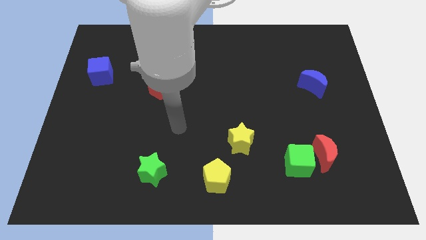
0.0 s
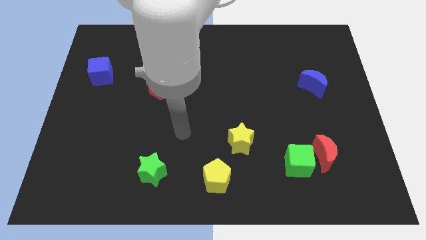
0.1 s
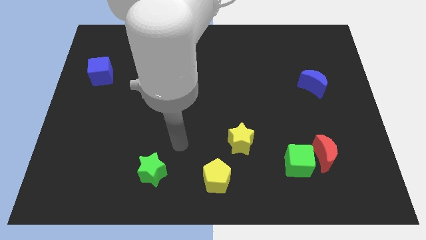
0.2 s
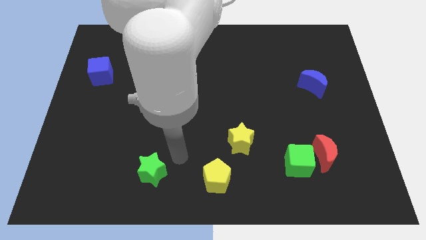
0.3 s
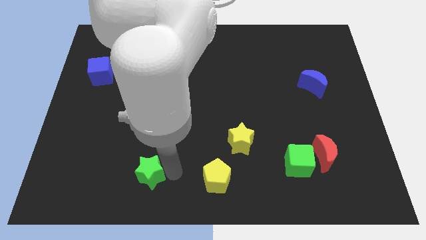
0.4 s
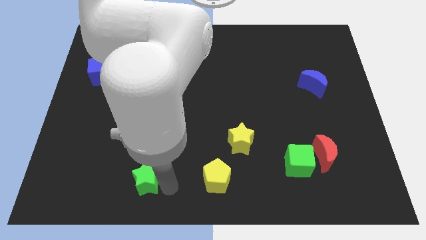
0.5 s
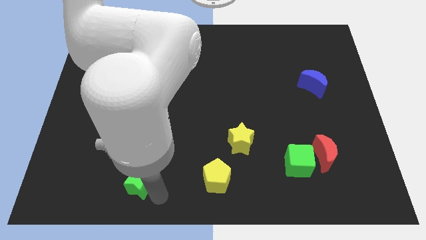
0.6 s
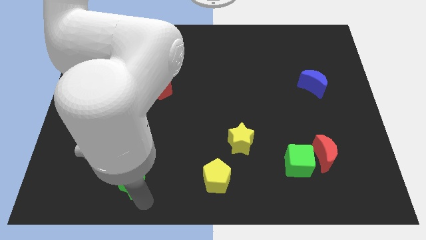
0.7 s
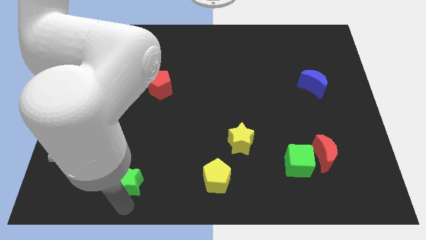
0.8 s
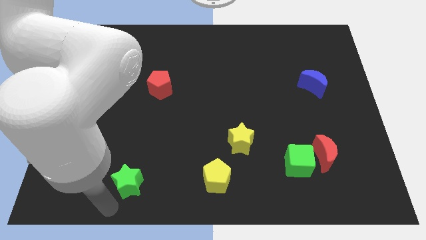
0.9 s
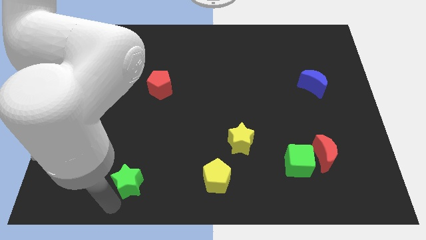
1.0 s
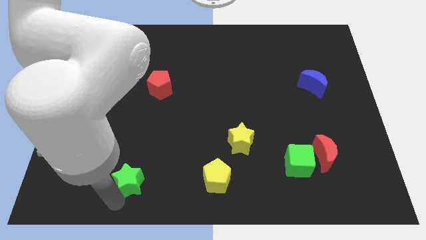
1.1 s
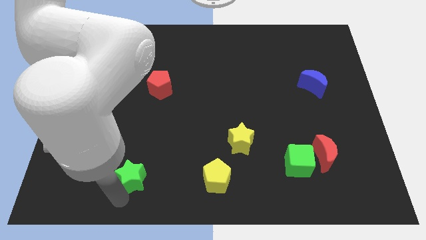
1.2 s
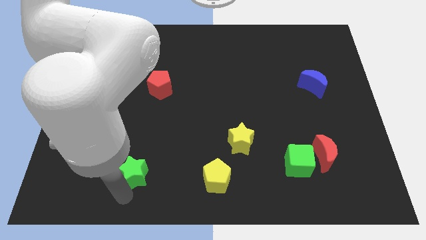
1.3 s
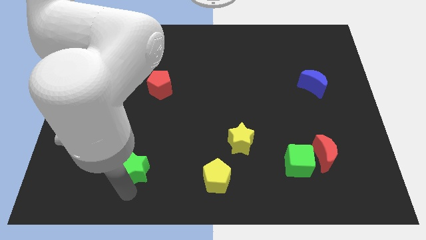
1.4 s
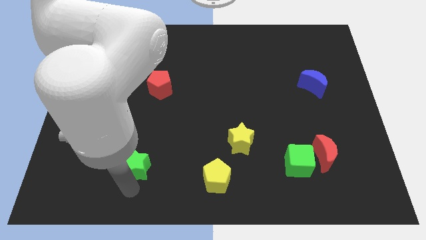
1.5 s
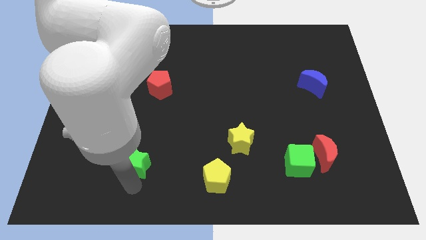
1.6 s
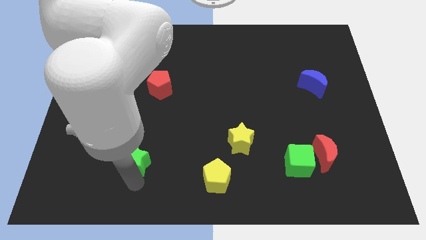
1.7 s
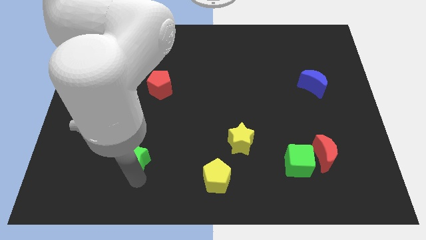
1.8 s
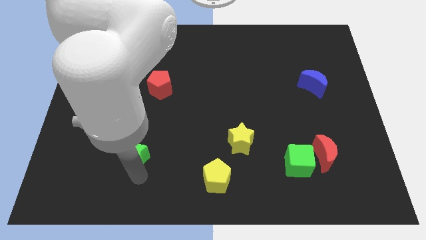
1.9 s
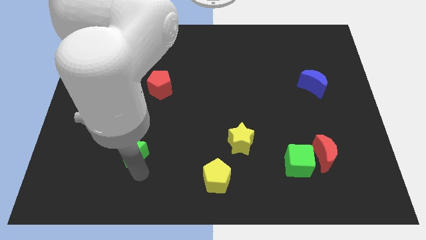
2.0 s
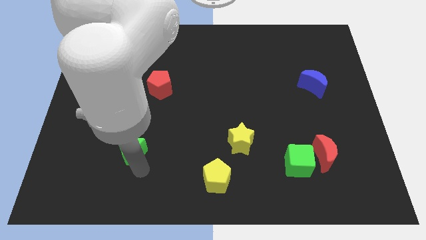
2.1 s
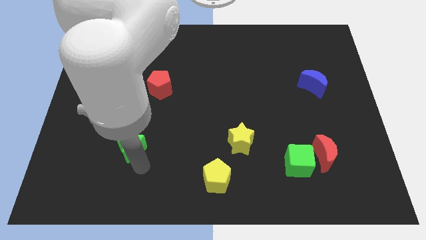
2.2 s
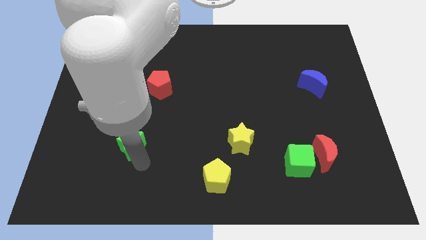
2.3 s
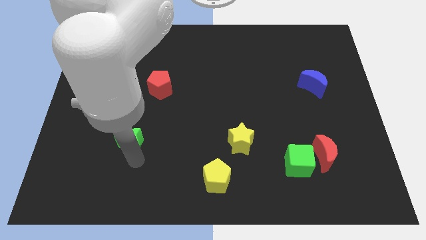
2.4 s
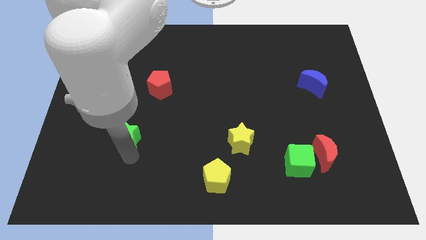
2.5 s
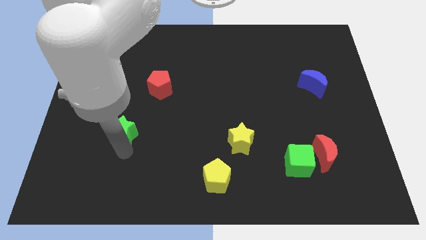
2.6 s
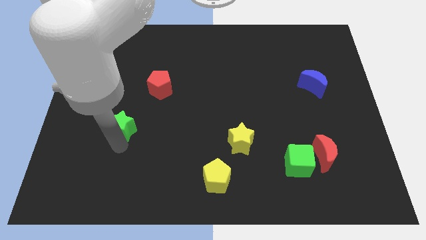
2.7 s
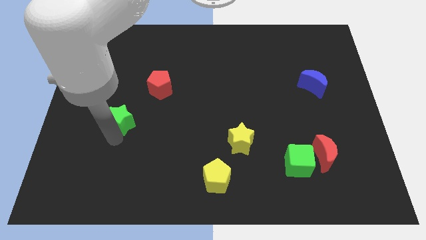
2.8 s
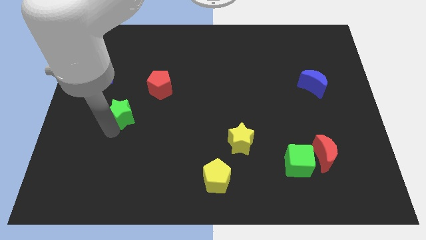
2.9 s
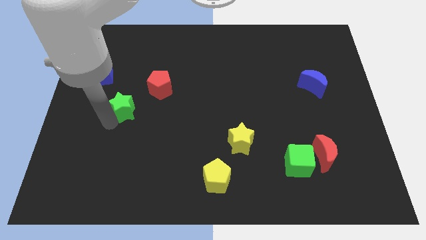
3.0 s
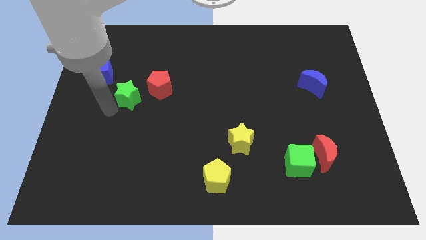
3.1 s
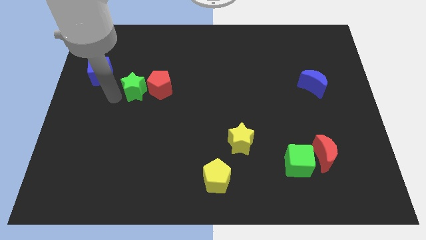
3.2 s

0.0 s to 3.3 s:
push the green star upwards

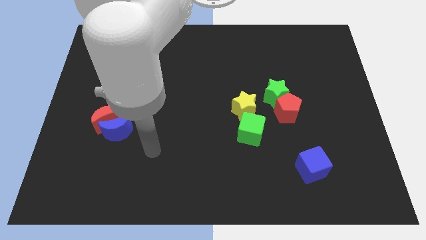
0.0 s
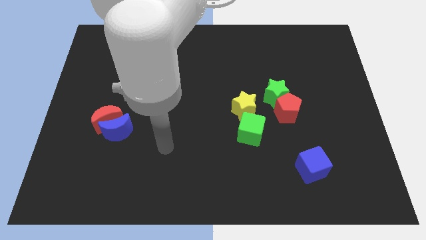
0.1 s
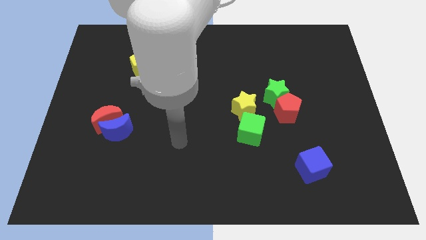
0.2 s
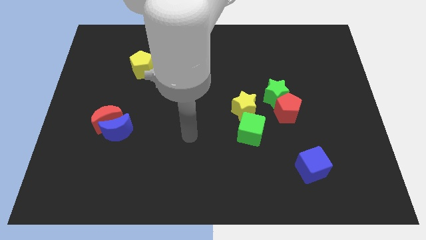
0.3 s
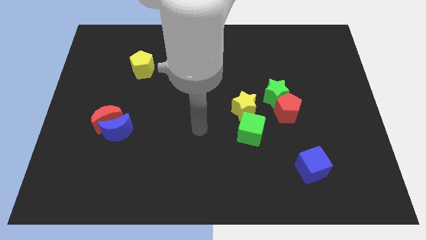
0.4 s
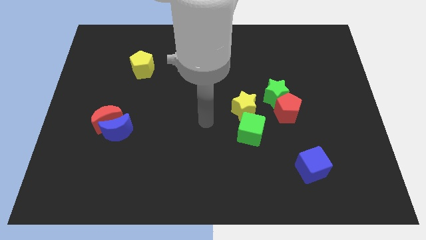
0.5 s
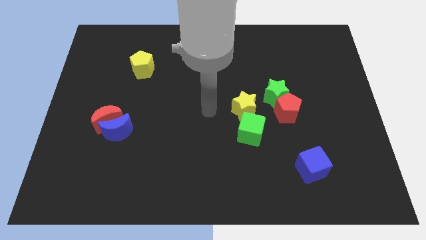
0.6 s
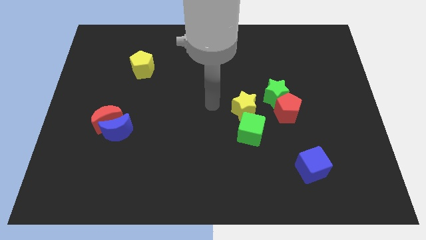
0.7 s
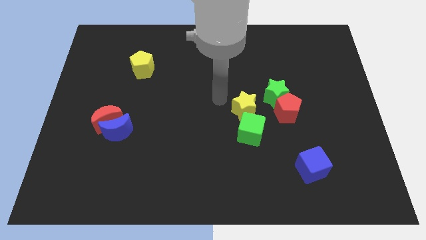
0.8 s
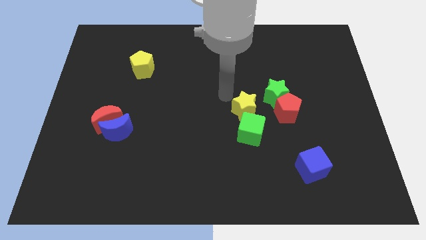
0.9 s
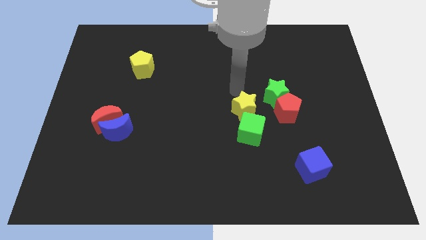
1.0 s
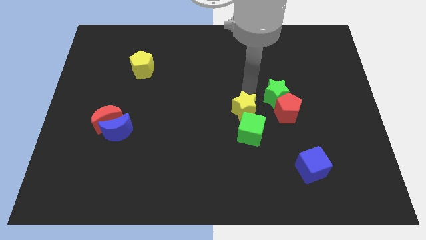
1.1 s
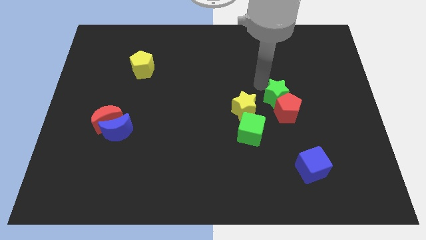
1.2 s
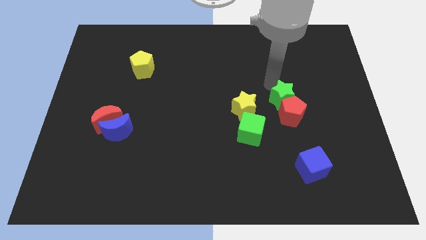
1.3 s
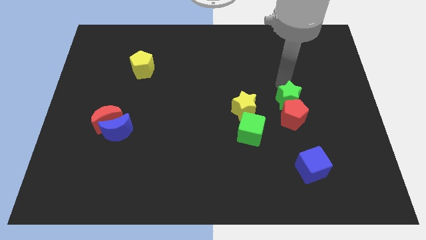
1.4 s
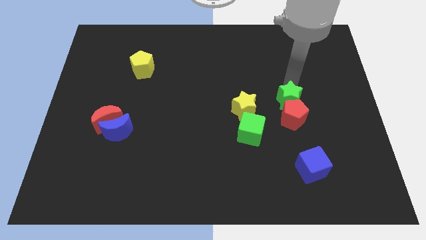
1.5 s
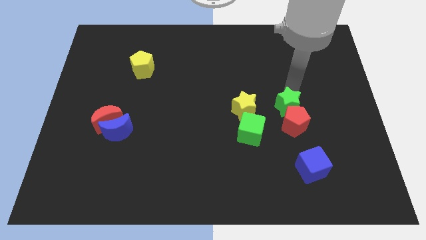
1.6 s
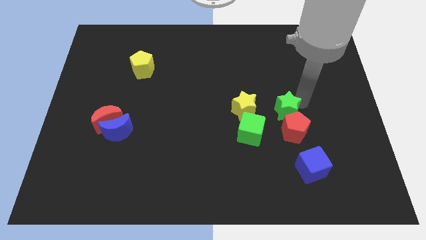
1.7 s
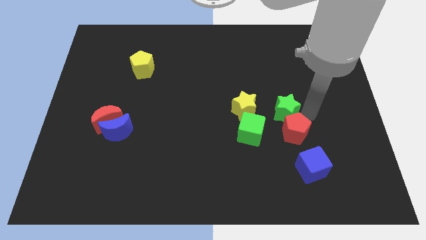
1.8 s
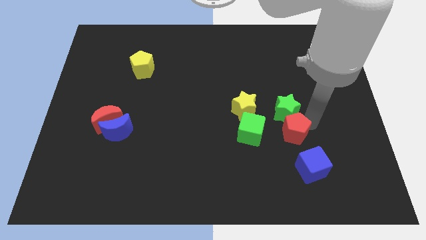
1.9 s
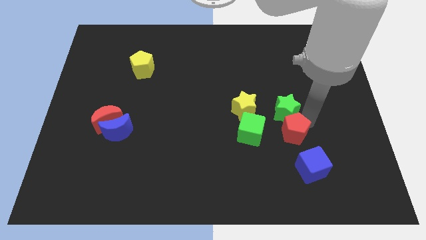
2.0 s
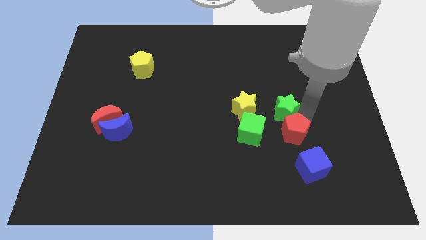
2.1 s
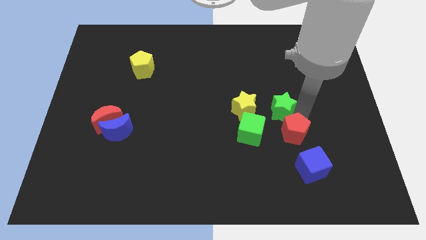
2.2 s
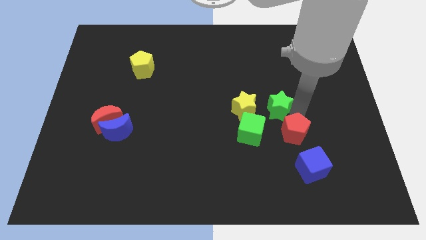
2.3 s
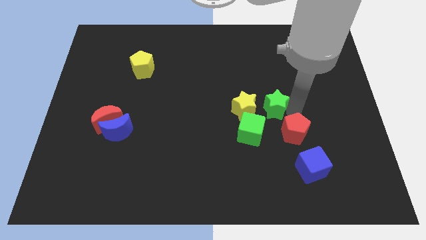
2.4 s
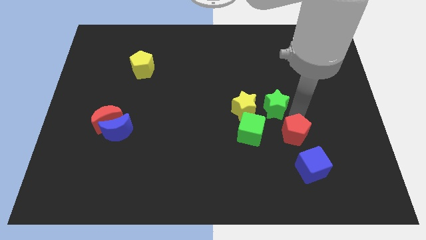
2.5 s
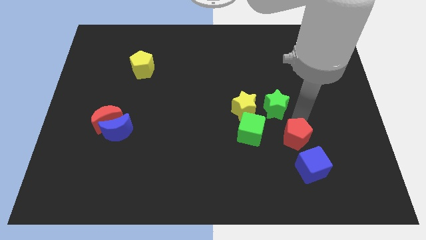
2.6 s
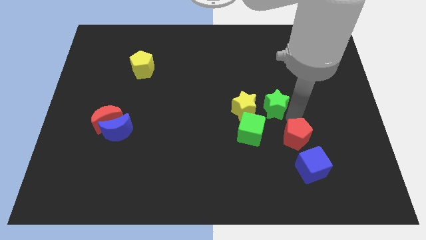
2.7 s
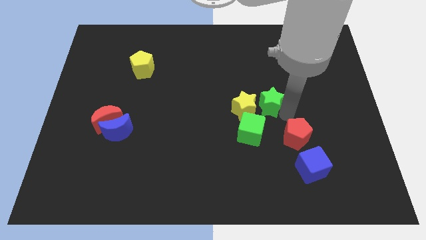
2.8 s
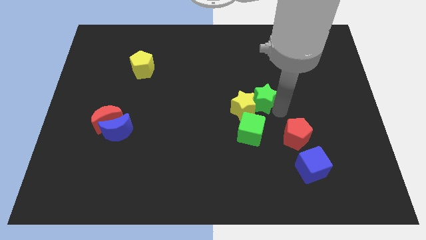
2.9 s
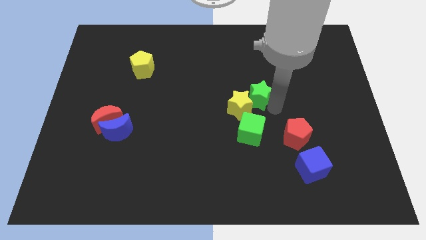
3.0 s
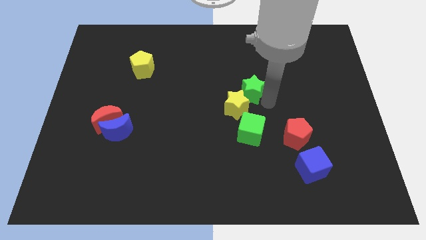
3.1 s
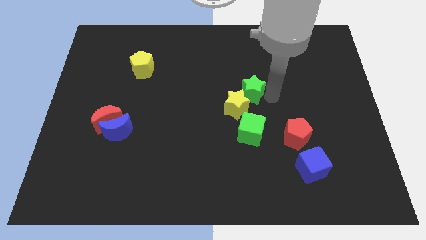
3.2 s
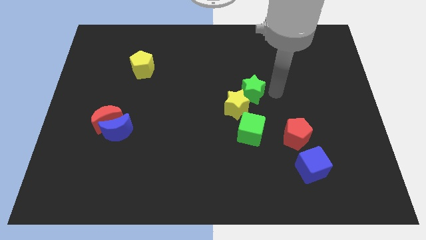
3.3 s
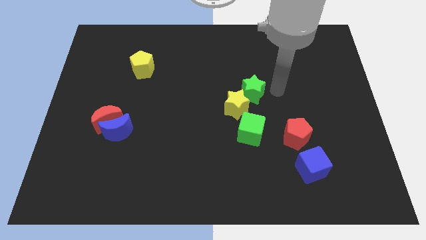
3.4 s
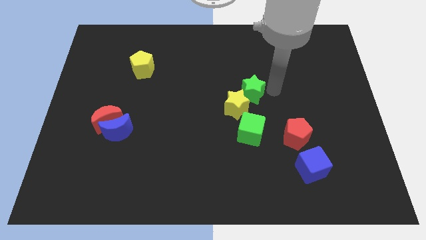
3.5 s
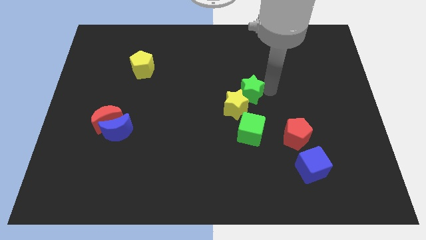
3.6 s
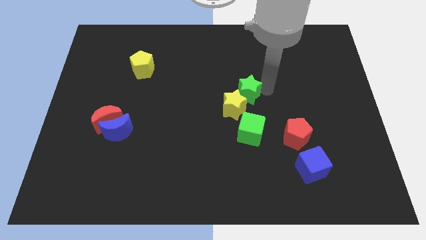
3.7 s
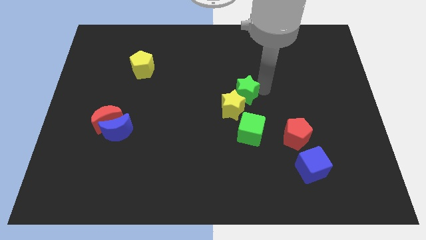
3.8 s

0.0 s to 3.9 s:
slightly push the green star left

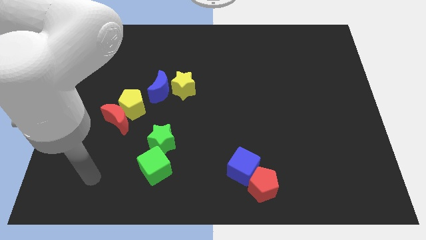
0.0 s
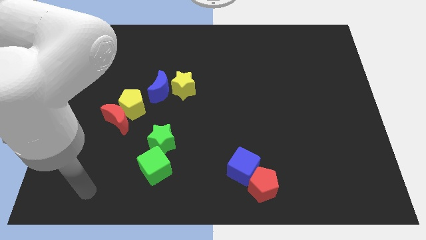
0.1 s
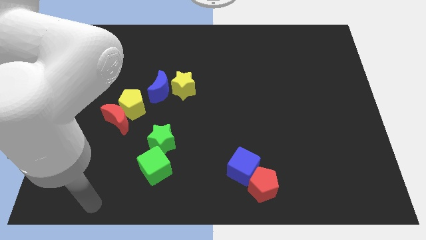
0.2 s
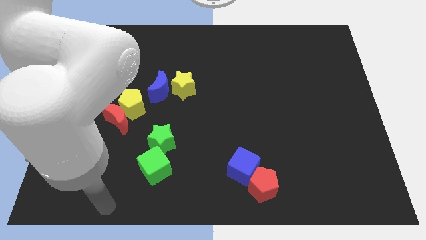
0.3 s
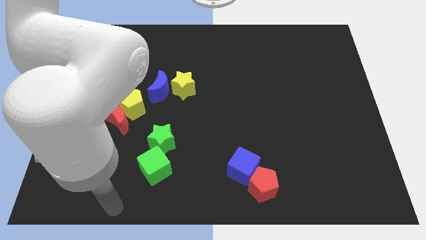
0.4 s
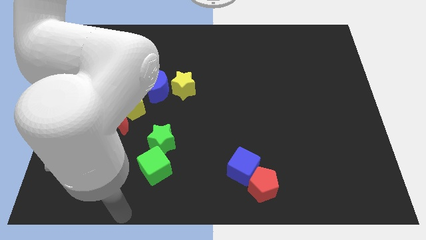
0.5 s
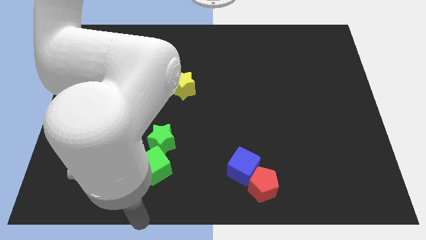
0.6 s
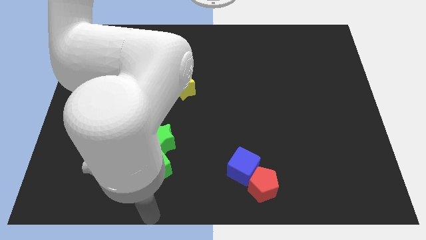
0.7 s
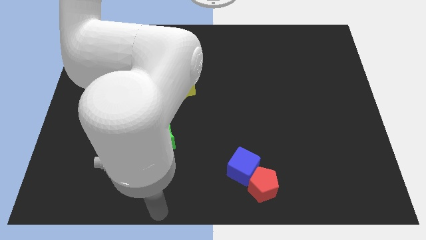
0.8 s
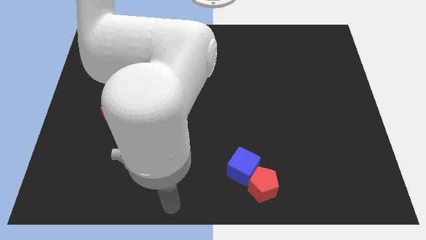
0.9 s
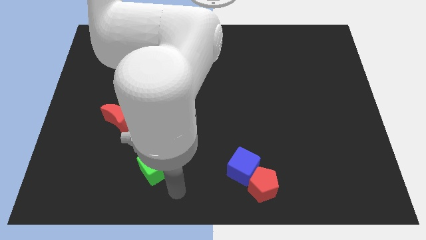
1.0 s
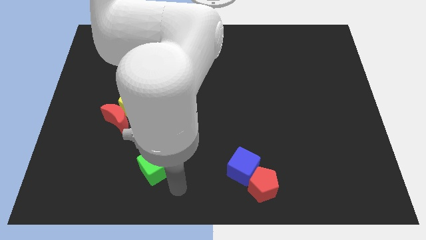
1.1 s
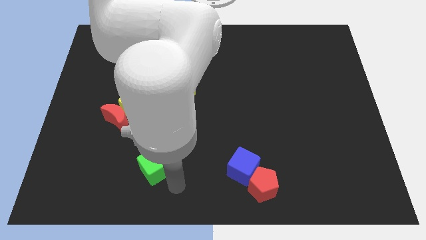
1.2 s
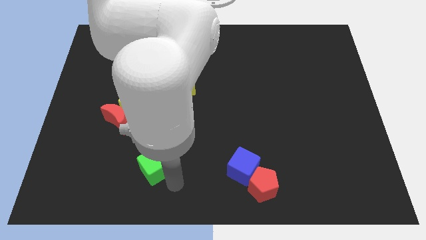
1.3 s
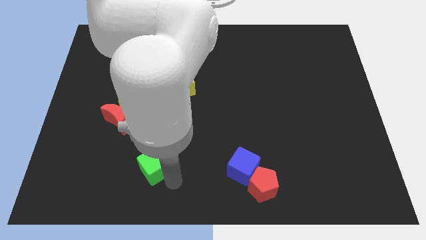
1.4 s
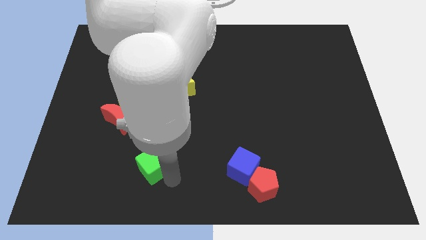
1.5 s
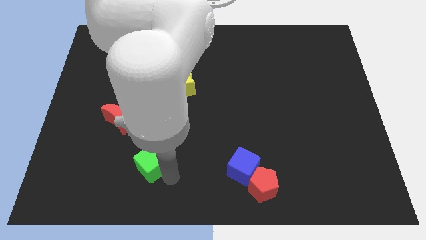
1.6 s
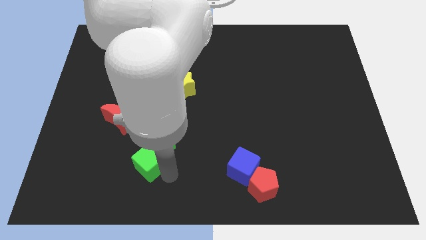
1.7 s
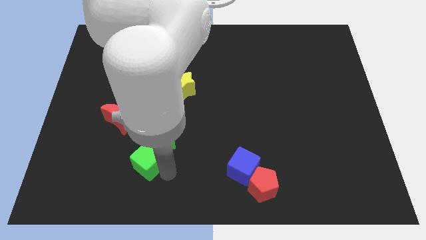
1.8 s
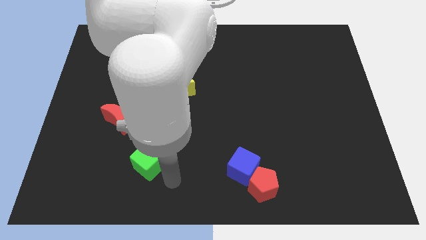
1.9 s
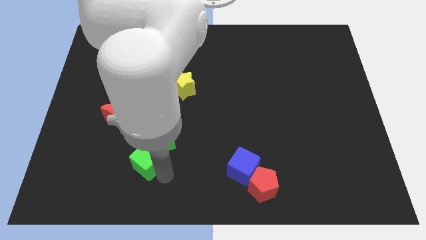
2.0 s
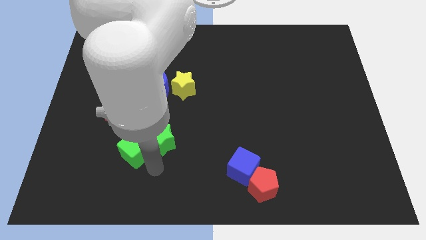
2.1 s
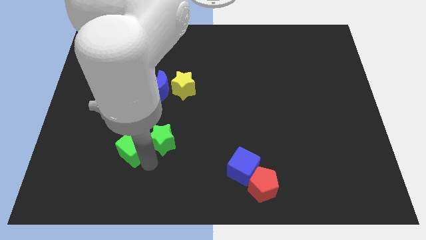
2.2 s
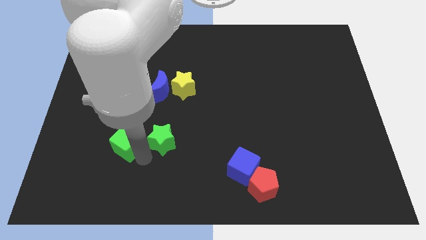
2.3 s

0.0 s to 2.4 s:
slightly push the green cube diagonally upwards and to the left
